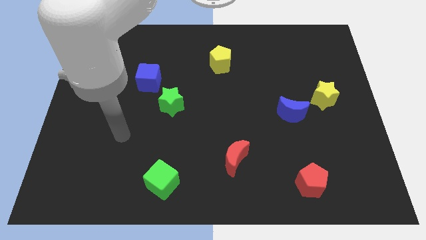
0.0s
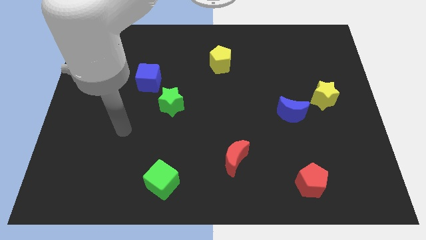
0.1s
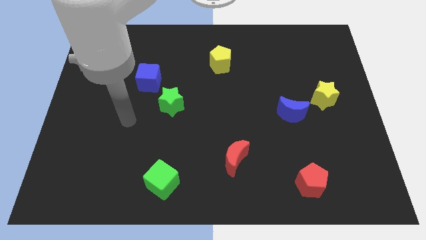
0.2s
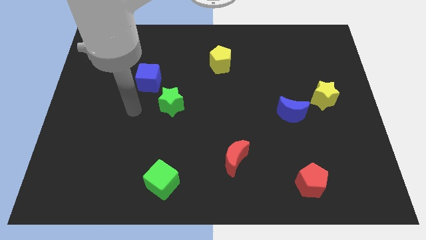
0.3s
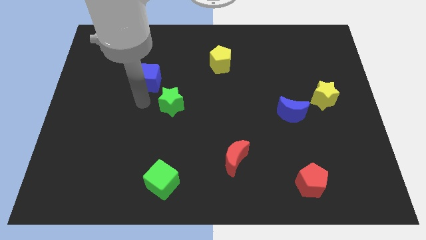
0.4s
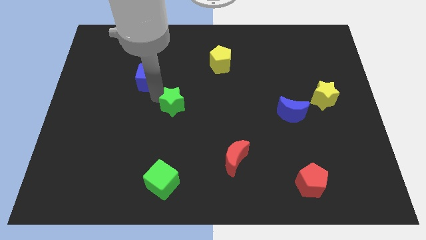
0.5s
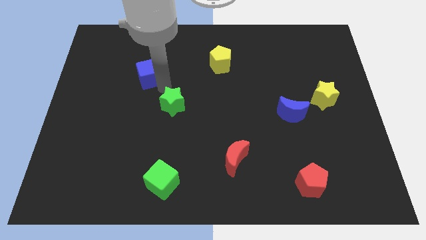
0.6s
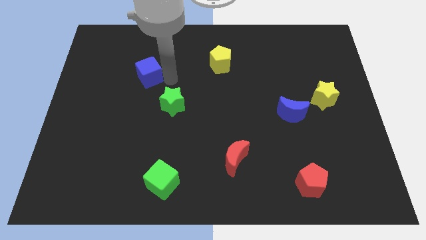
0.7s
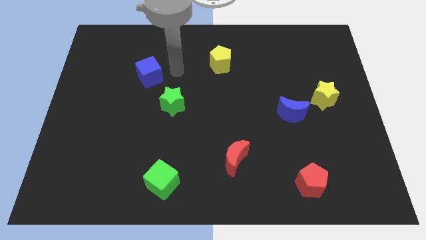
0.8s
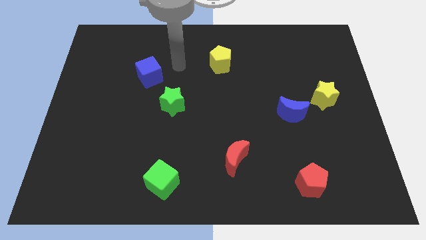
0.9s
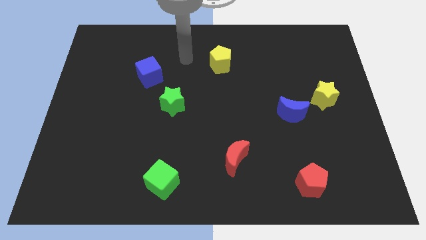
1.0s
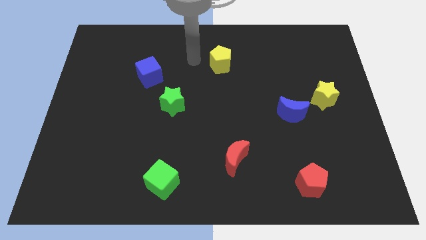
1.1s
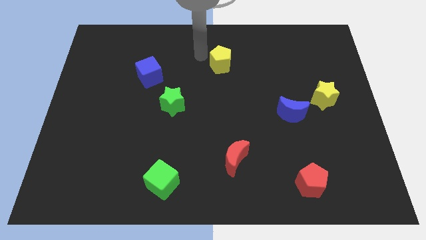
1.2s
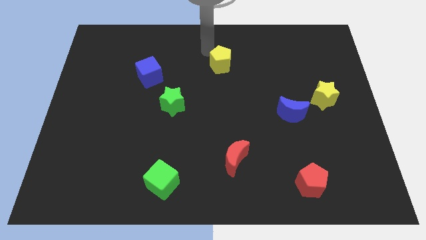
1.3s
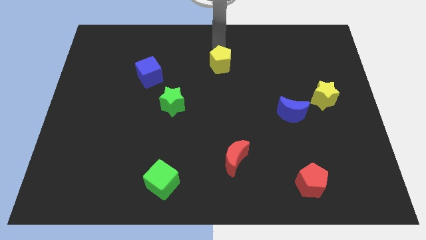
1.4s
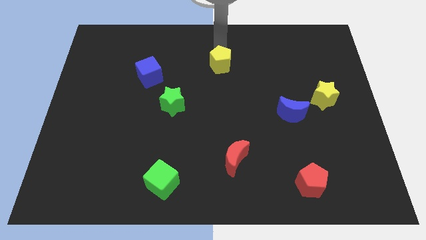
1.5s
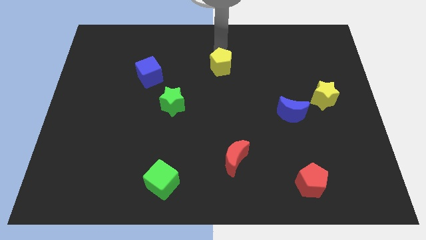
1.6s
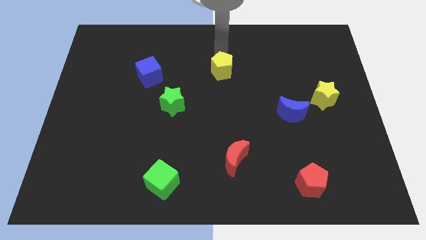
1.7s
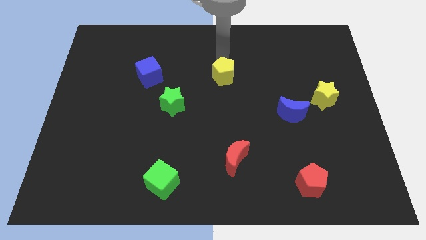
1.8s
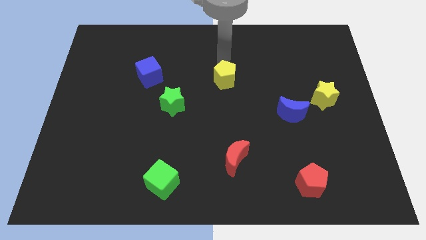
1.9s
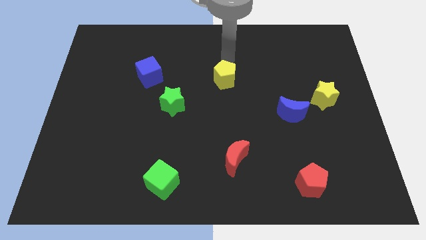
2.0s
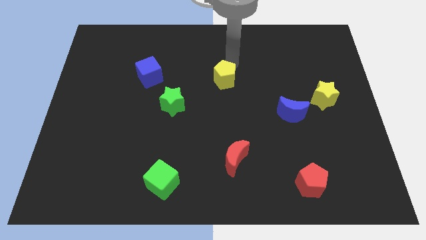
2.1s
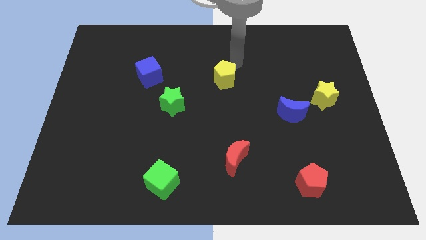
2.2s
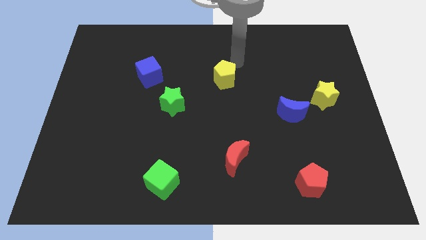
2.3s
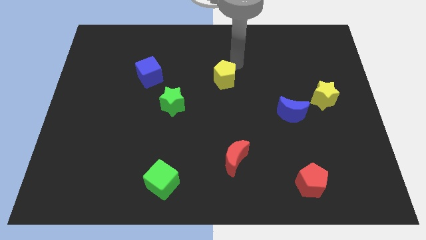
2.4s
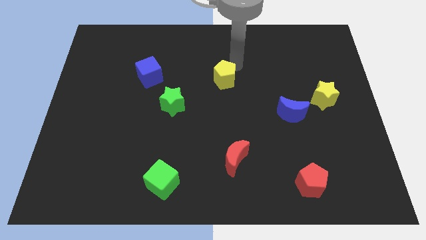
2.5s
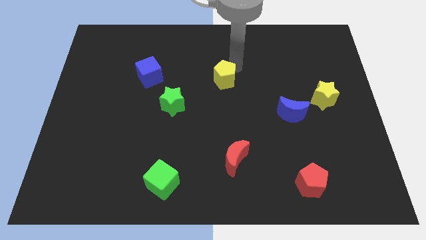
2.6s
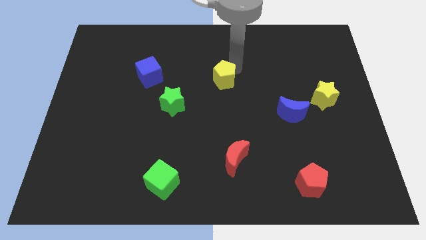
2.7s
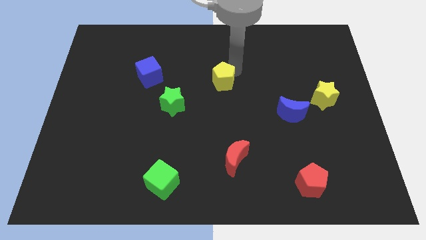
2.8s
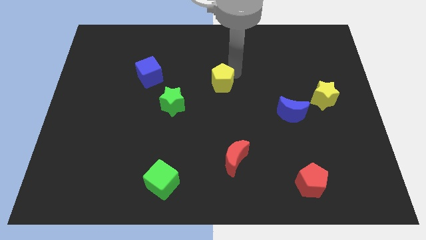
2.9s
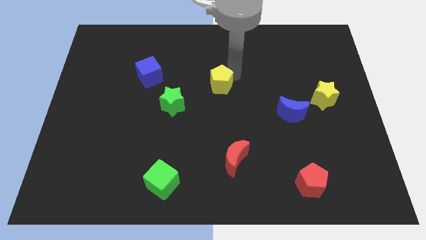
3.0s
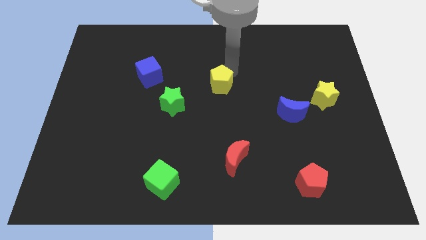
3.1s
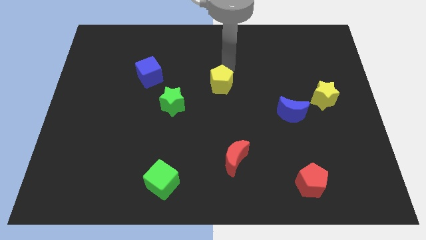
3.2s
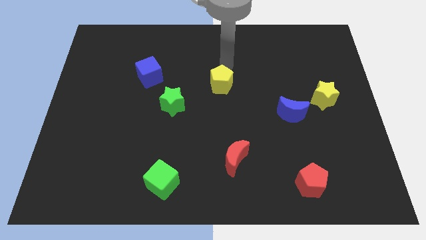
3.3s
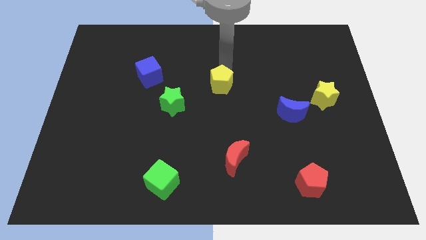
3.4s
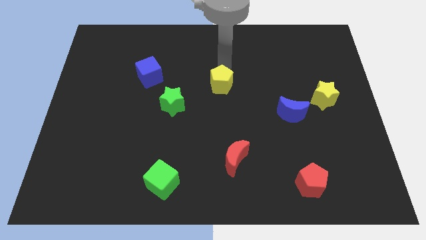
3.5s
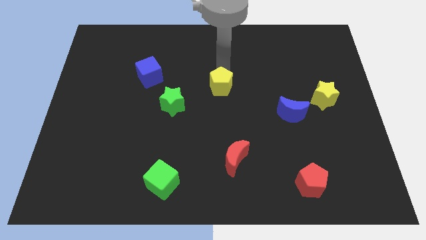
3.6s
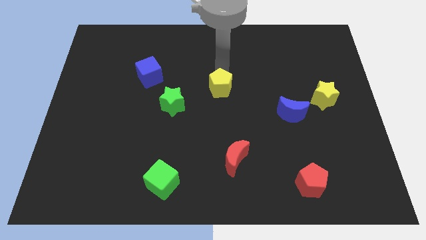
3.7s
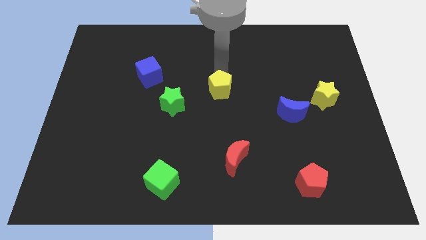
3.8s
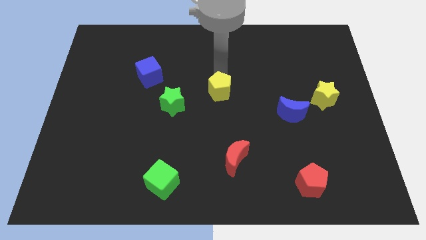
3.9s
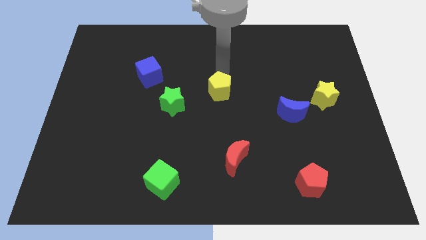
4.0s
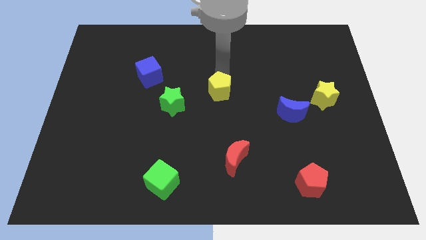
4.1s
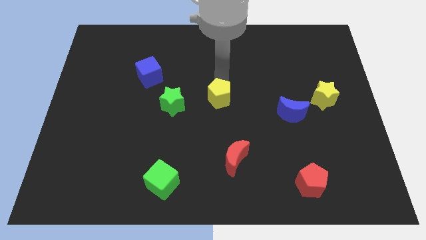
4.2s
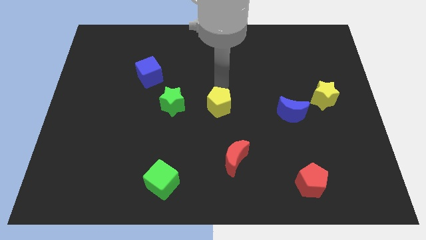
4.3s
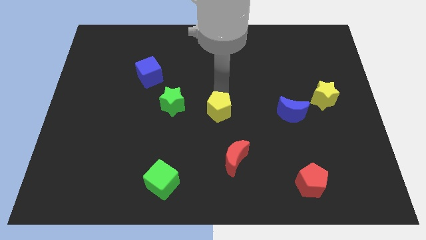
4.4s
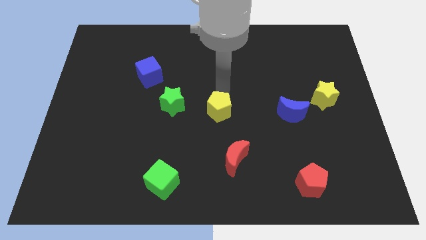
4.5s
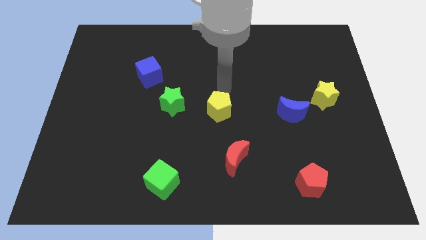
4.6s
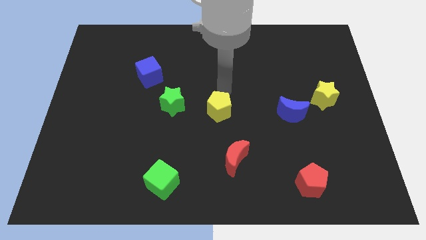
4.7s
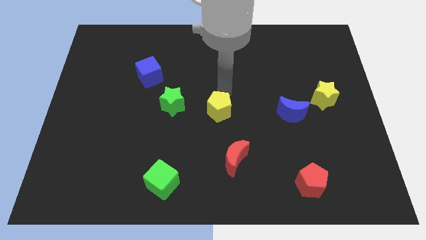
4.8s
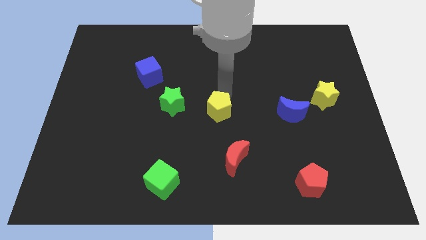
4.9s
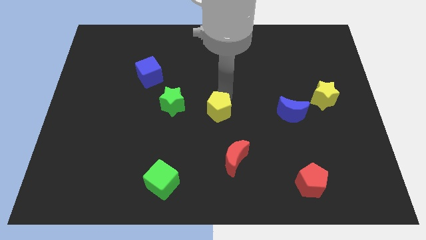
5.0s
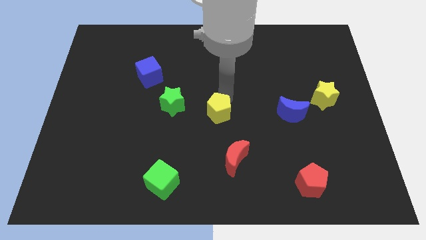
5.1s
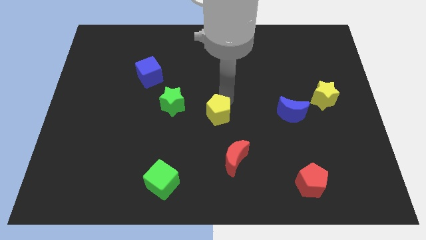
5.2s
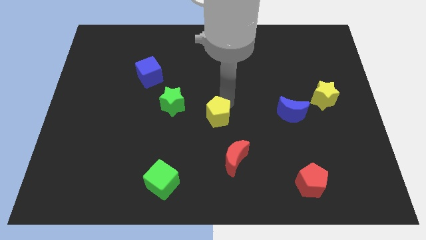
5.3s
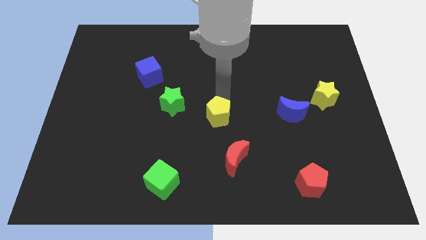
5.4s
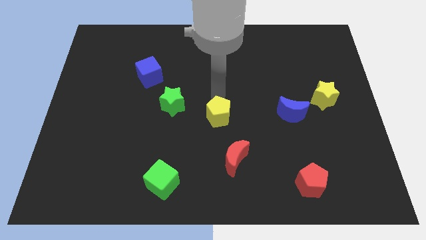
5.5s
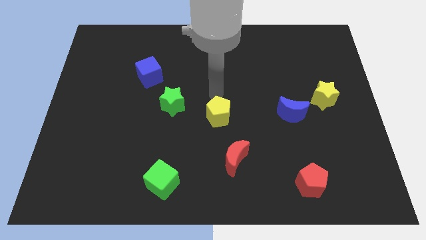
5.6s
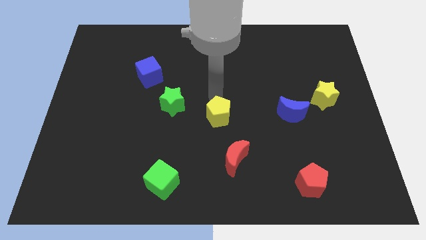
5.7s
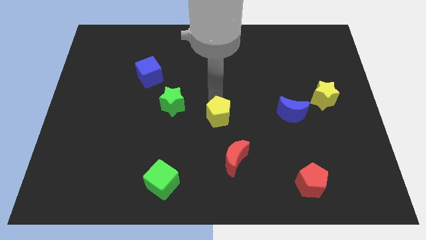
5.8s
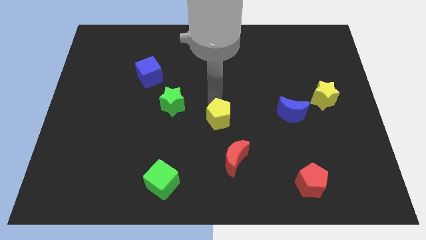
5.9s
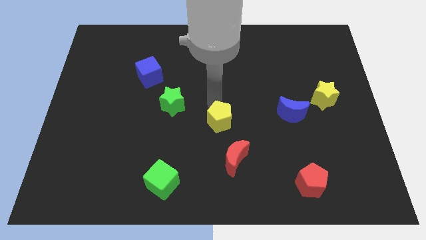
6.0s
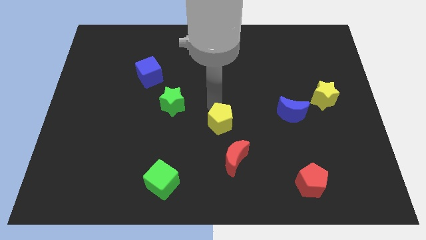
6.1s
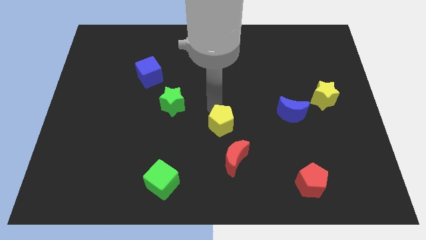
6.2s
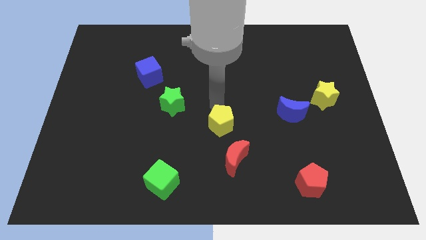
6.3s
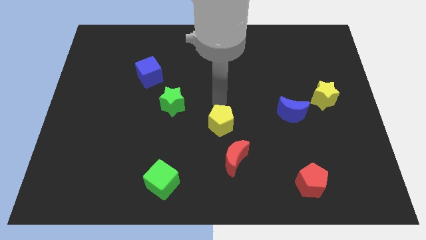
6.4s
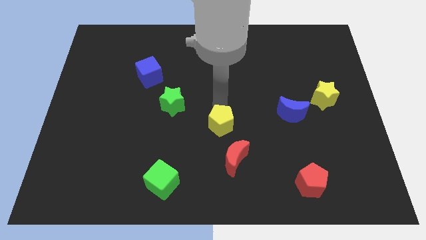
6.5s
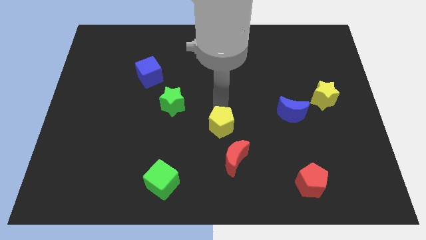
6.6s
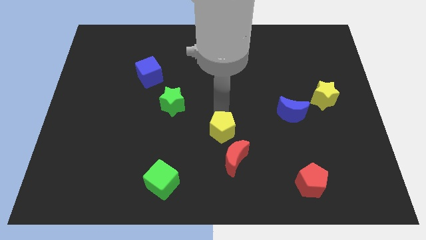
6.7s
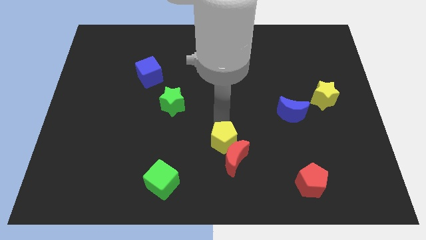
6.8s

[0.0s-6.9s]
slide the yellow pentagon towards the red moon
